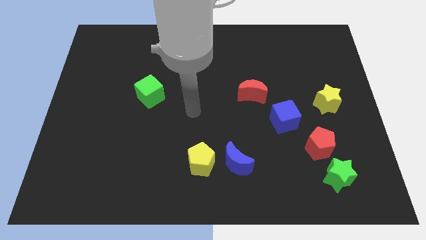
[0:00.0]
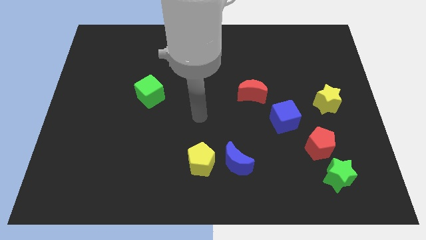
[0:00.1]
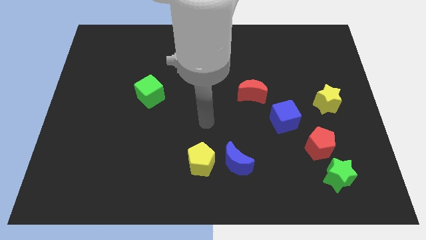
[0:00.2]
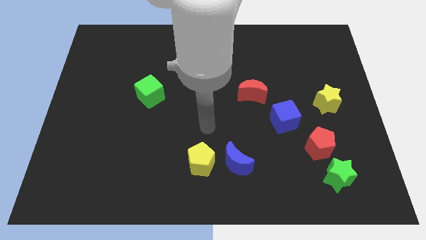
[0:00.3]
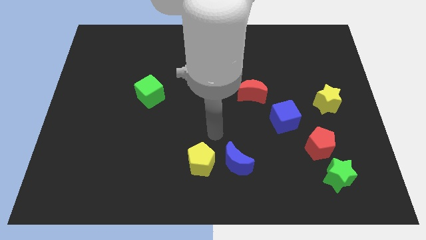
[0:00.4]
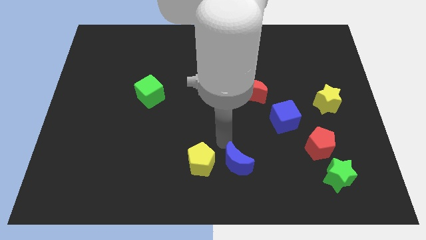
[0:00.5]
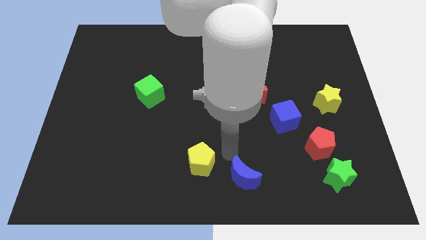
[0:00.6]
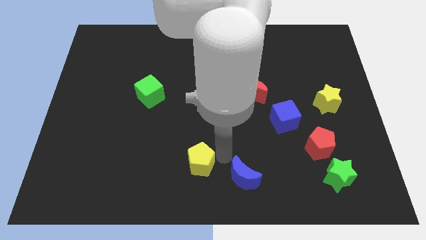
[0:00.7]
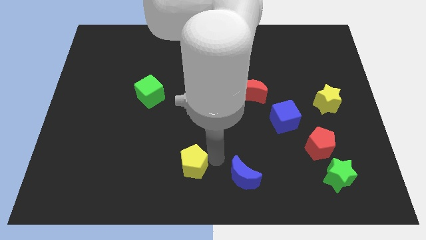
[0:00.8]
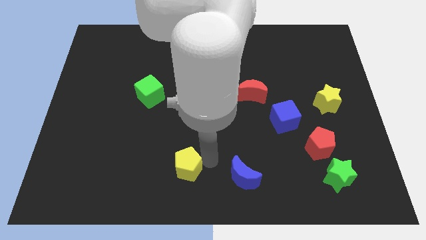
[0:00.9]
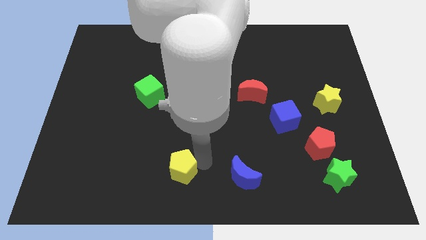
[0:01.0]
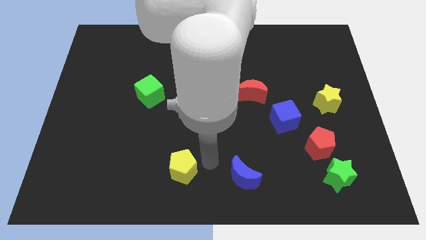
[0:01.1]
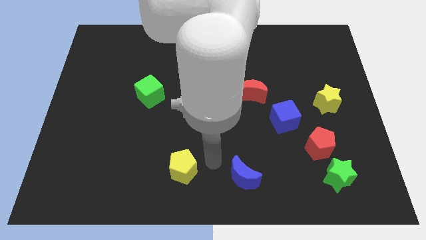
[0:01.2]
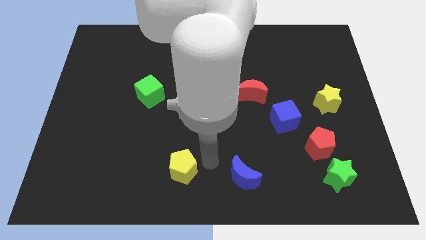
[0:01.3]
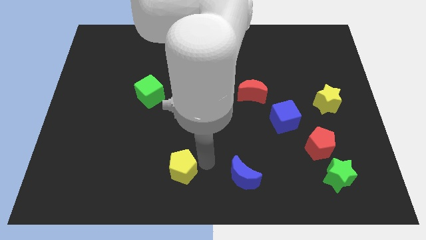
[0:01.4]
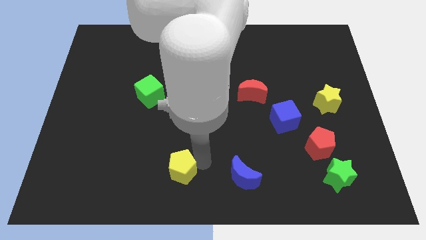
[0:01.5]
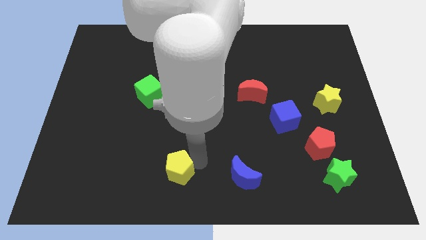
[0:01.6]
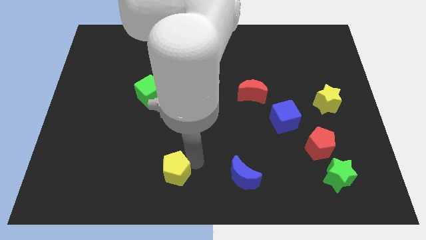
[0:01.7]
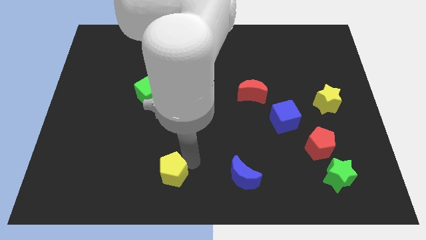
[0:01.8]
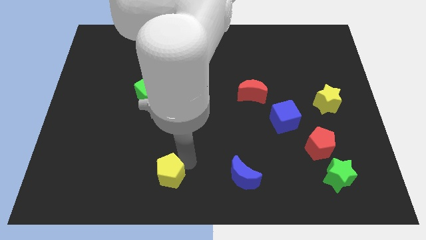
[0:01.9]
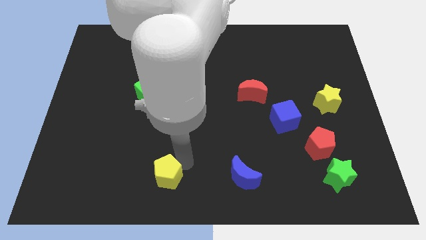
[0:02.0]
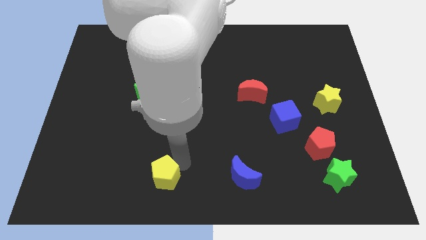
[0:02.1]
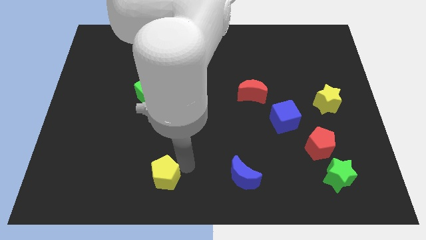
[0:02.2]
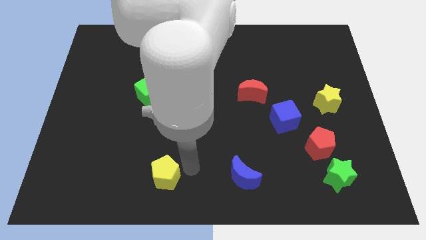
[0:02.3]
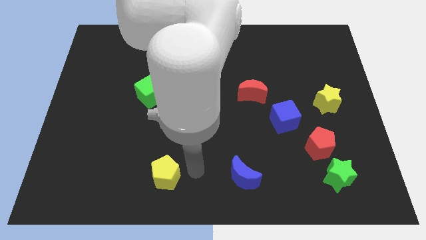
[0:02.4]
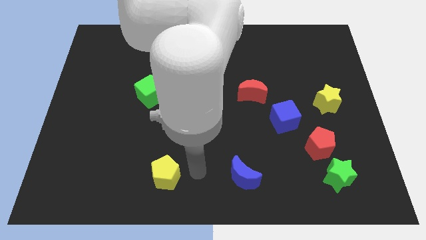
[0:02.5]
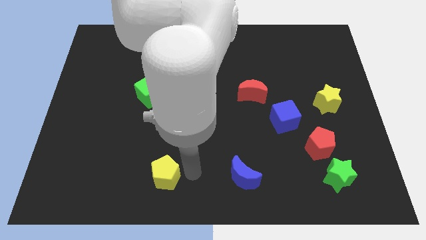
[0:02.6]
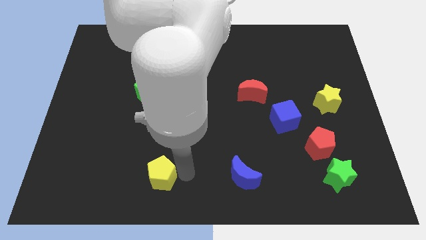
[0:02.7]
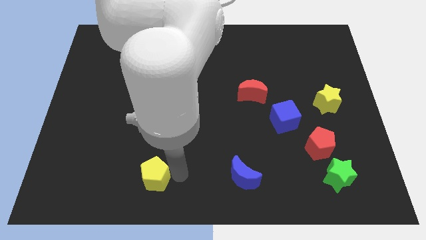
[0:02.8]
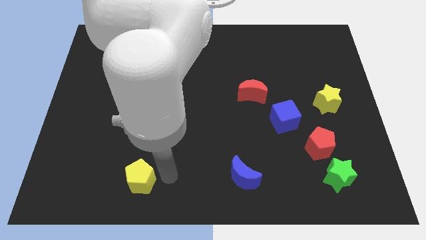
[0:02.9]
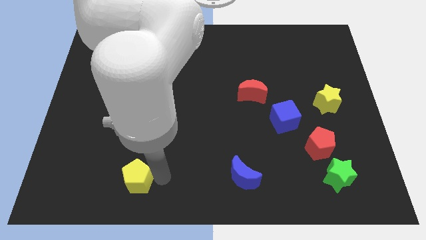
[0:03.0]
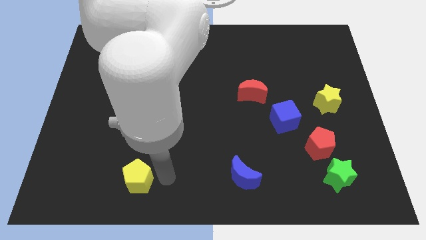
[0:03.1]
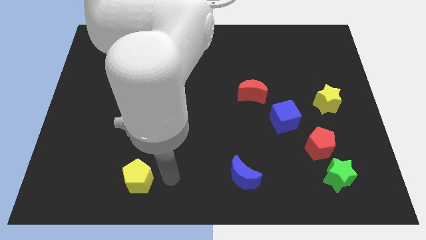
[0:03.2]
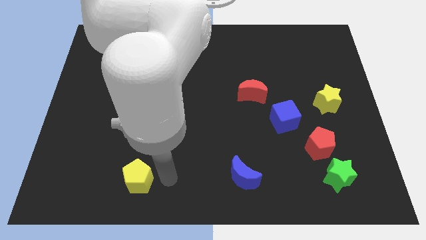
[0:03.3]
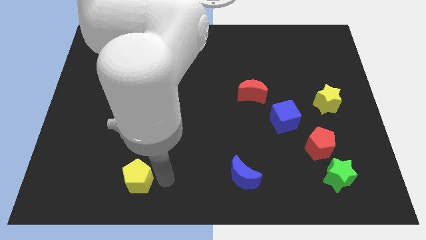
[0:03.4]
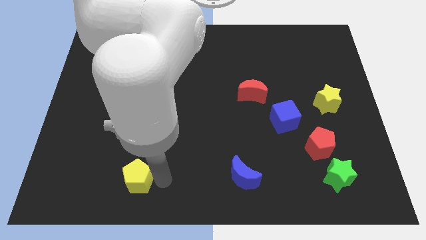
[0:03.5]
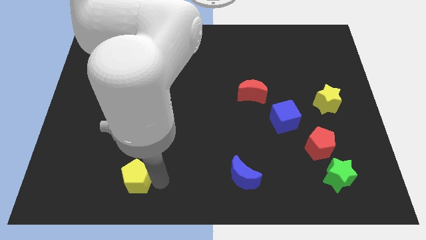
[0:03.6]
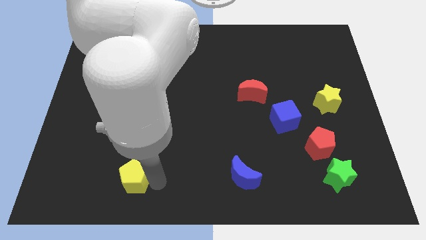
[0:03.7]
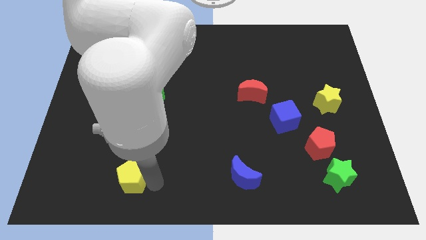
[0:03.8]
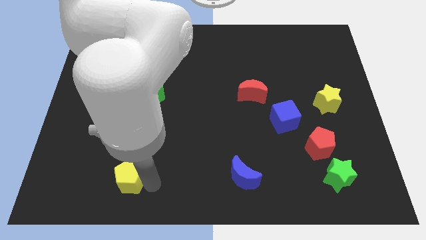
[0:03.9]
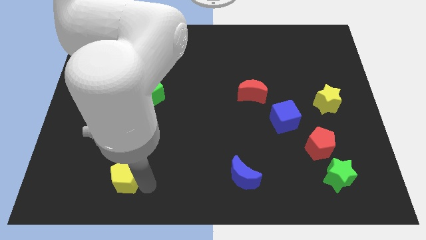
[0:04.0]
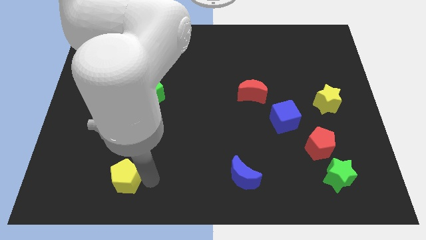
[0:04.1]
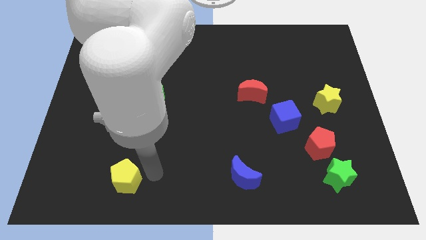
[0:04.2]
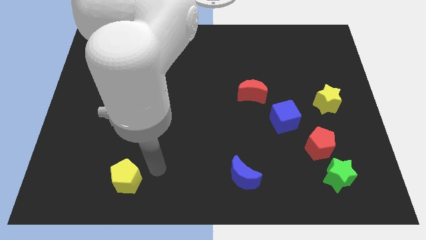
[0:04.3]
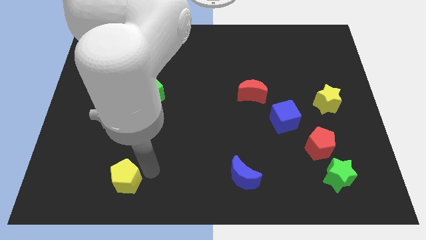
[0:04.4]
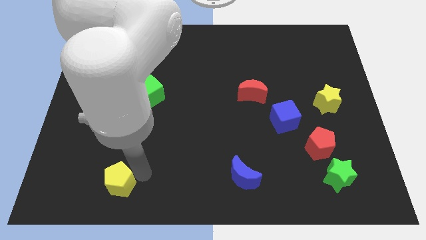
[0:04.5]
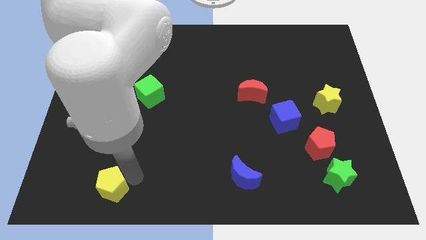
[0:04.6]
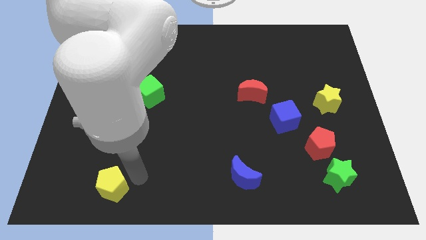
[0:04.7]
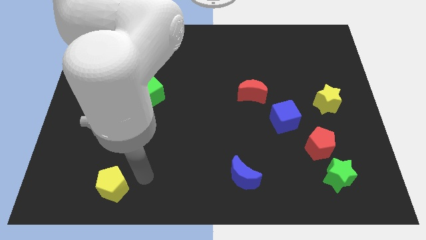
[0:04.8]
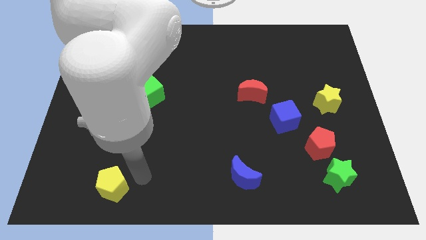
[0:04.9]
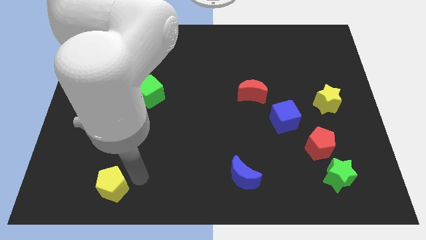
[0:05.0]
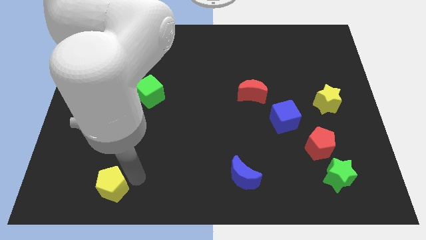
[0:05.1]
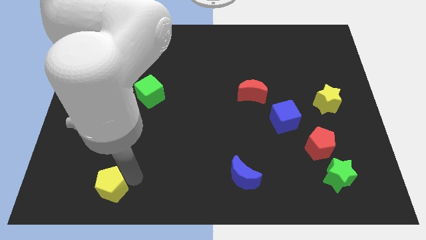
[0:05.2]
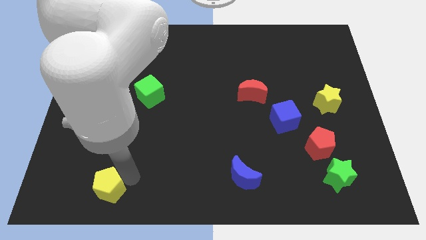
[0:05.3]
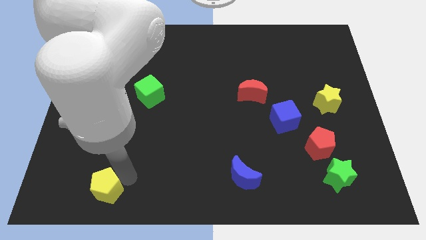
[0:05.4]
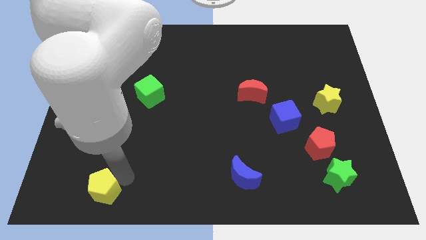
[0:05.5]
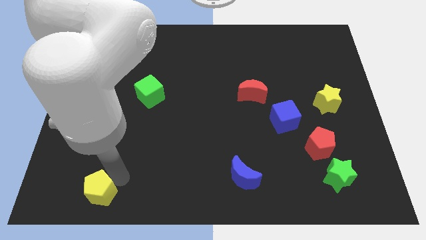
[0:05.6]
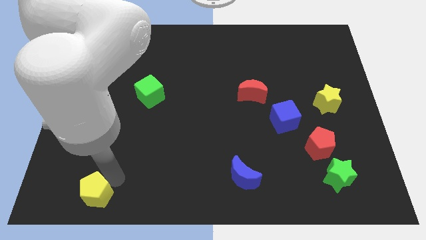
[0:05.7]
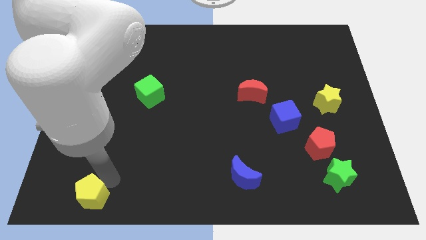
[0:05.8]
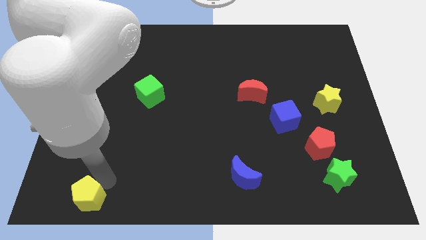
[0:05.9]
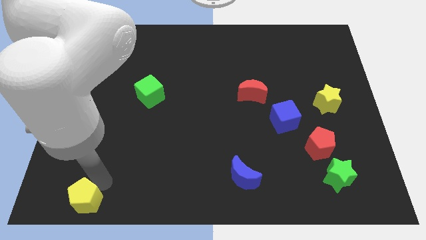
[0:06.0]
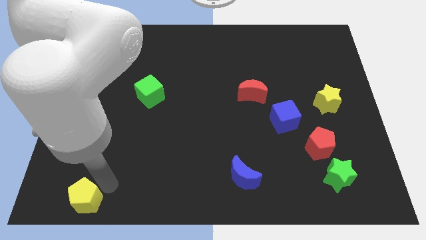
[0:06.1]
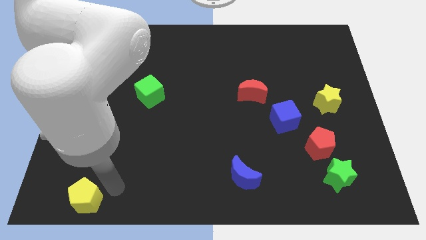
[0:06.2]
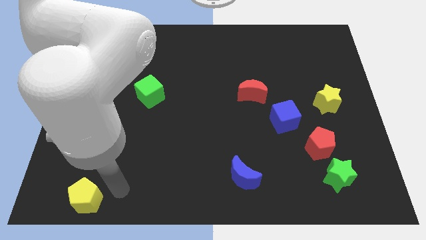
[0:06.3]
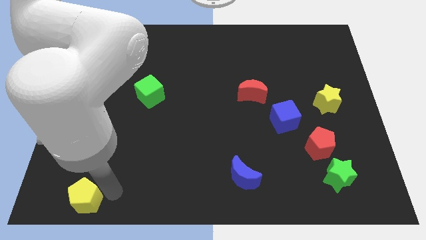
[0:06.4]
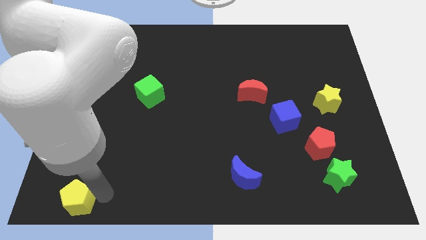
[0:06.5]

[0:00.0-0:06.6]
move the yellow pentagon to the bottom left corner
